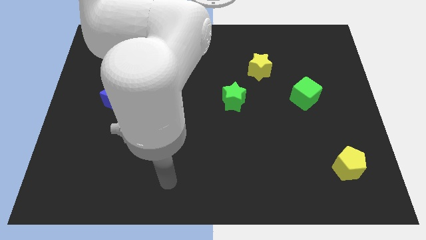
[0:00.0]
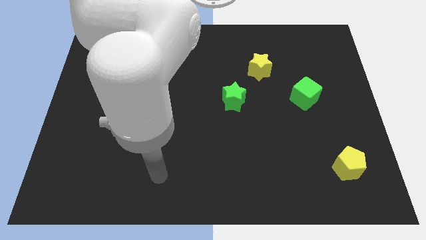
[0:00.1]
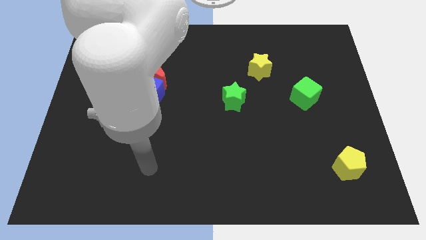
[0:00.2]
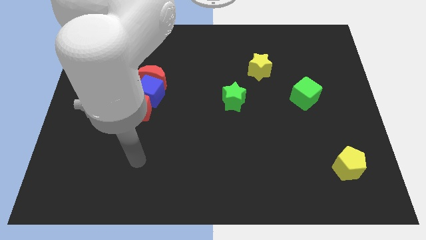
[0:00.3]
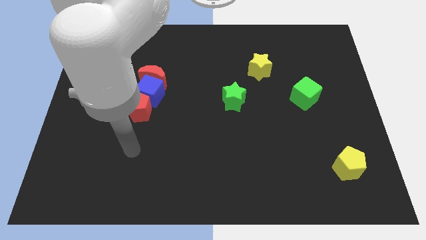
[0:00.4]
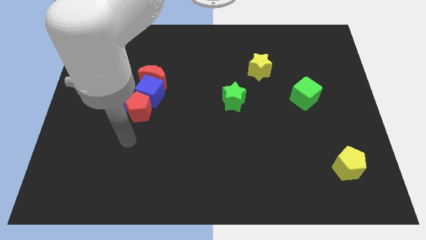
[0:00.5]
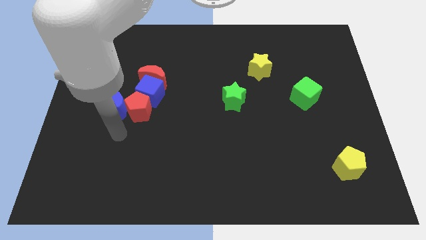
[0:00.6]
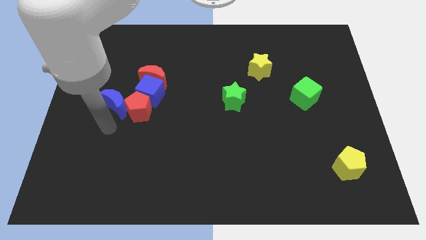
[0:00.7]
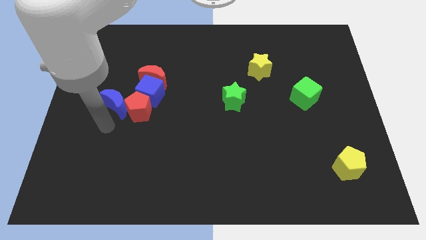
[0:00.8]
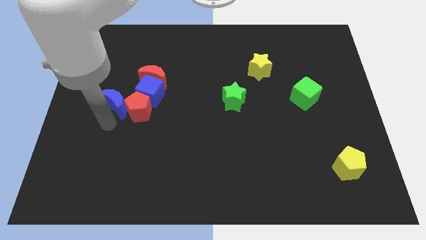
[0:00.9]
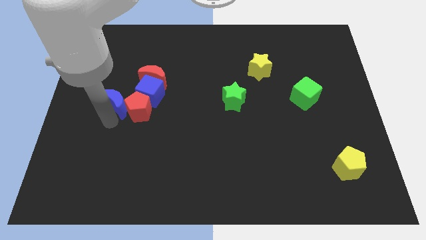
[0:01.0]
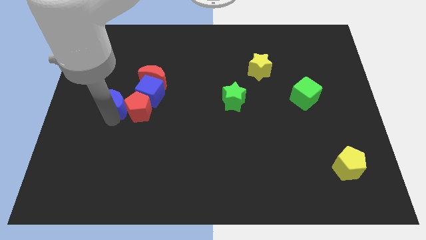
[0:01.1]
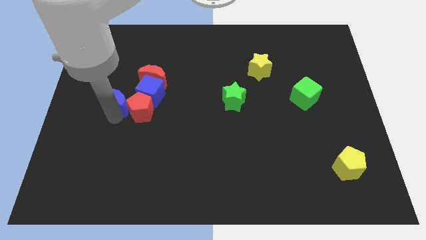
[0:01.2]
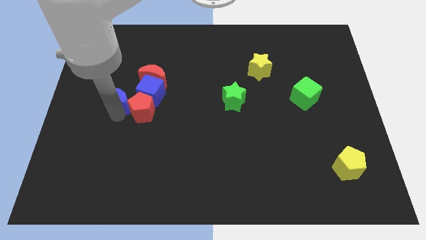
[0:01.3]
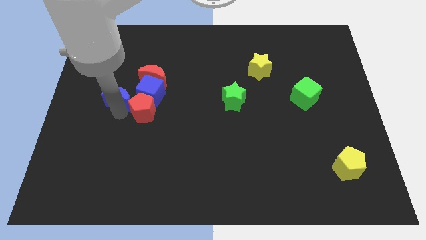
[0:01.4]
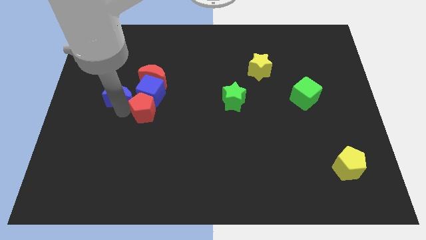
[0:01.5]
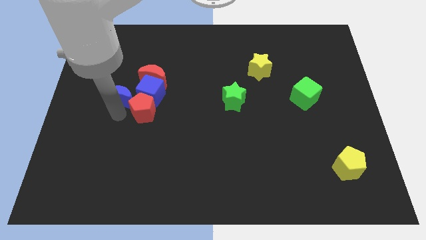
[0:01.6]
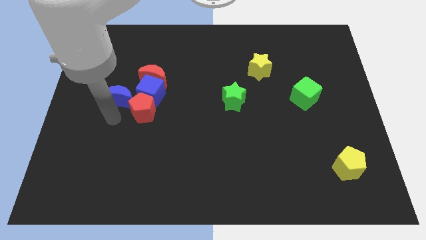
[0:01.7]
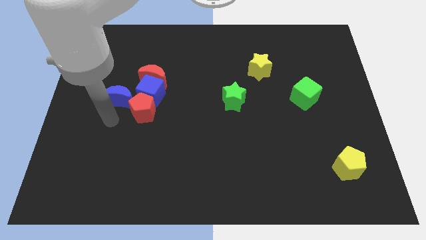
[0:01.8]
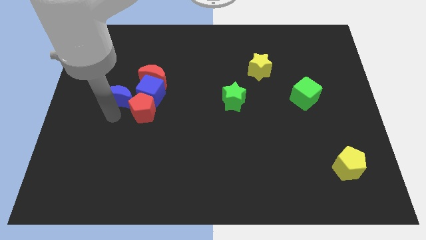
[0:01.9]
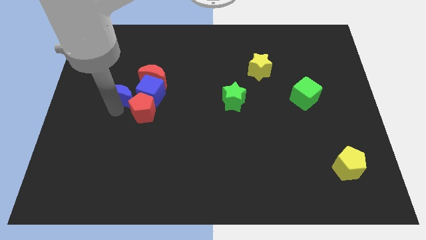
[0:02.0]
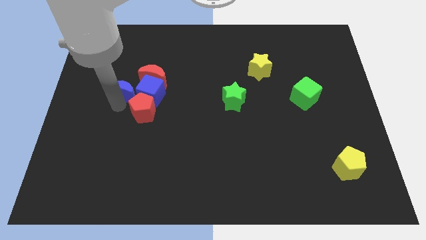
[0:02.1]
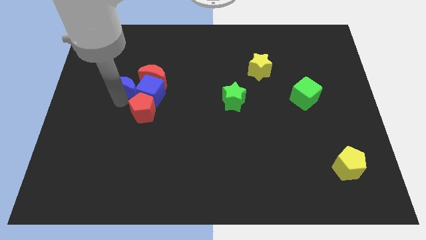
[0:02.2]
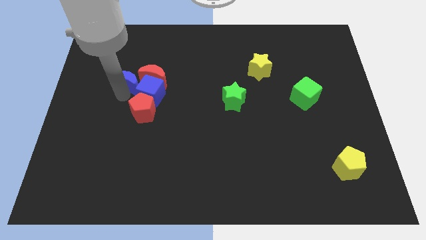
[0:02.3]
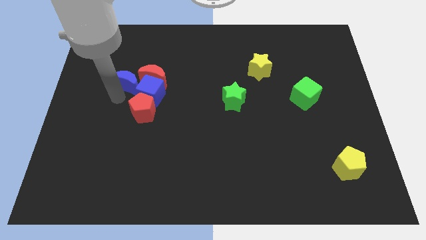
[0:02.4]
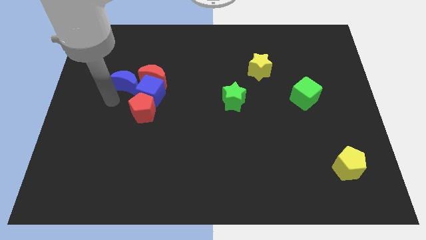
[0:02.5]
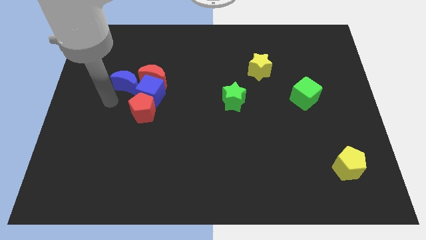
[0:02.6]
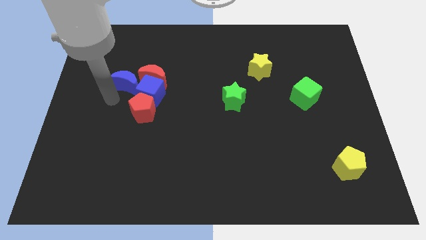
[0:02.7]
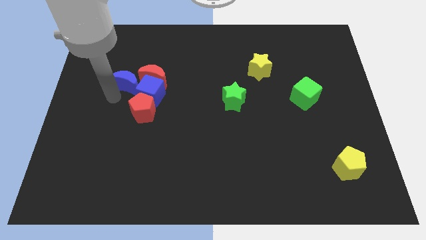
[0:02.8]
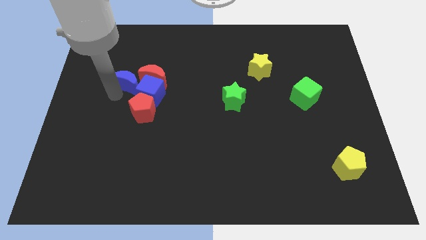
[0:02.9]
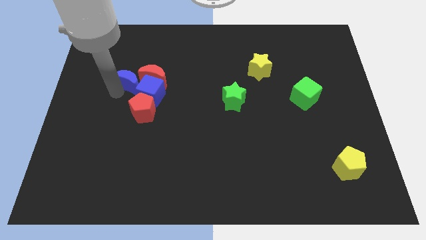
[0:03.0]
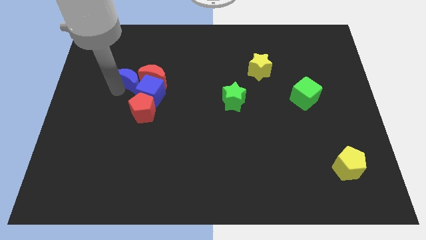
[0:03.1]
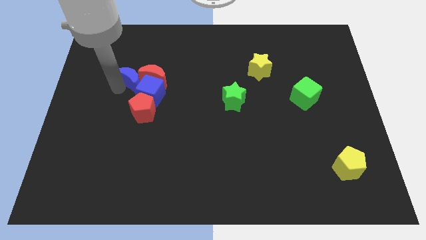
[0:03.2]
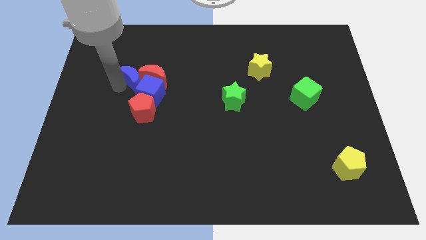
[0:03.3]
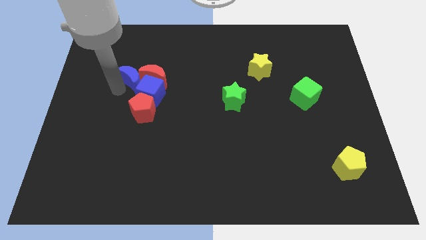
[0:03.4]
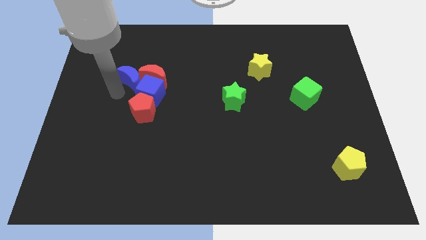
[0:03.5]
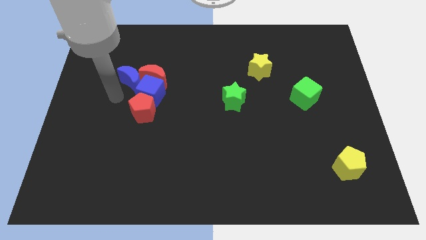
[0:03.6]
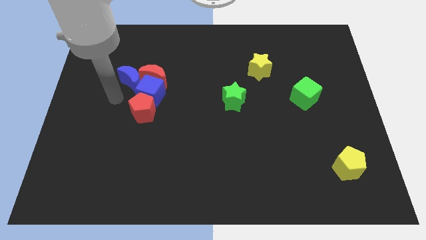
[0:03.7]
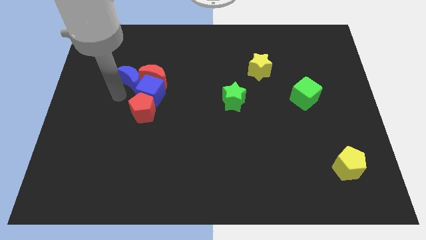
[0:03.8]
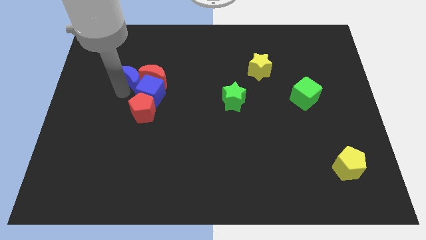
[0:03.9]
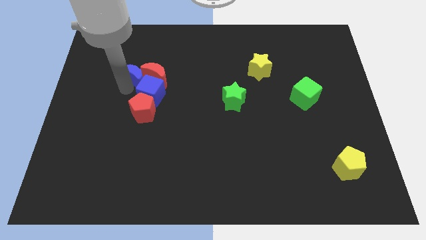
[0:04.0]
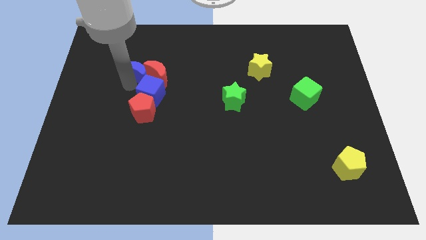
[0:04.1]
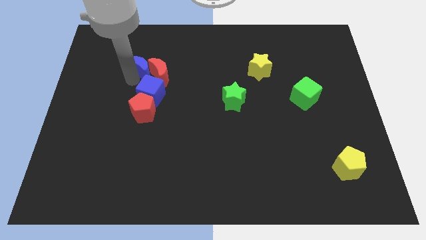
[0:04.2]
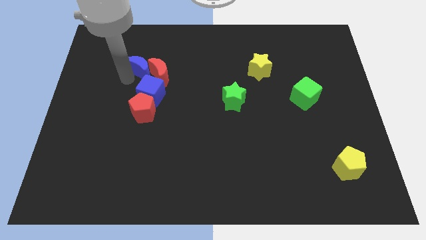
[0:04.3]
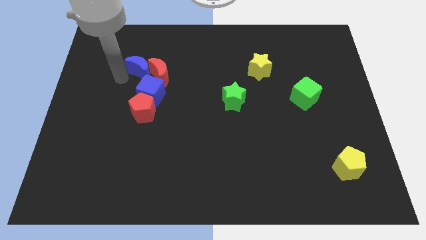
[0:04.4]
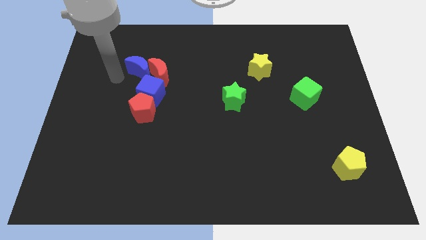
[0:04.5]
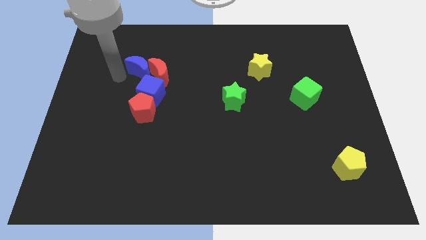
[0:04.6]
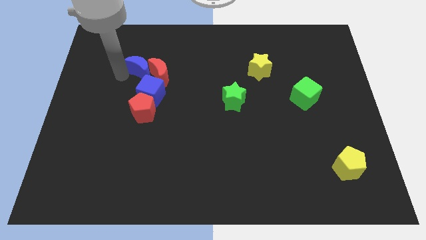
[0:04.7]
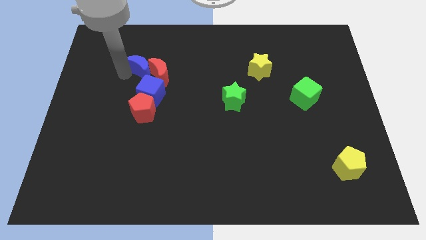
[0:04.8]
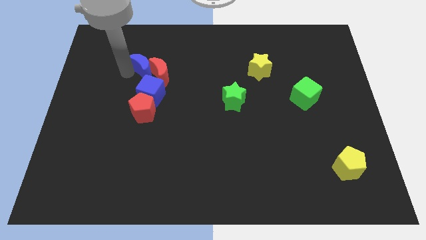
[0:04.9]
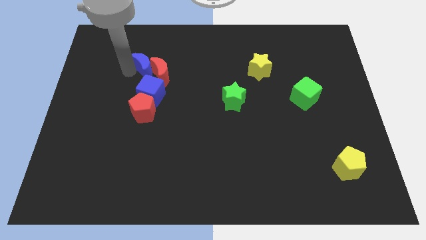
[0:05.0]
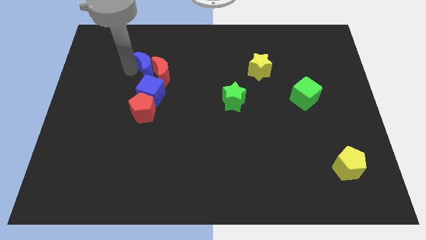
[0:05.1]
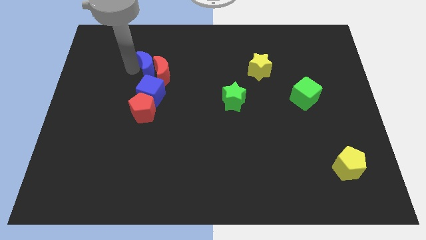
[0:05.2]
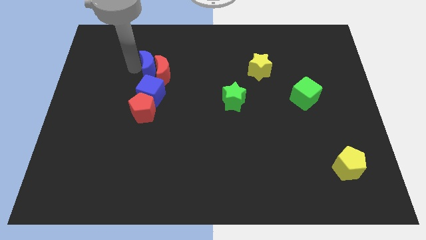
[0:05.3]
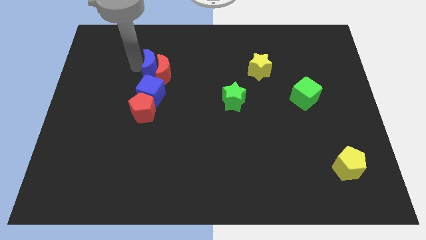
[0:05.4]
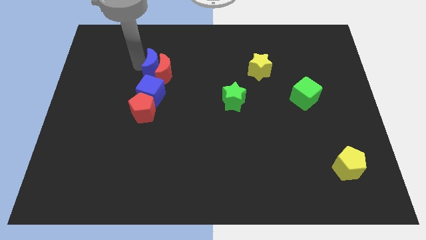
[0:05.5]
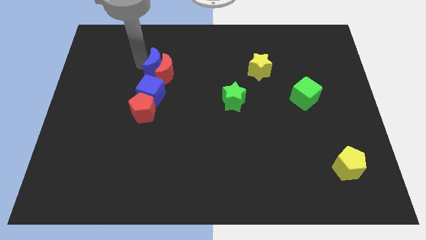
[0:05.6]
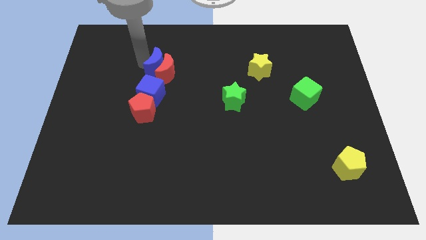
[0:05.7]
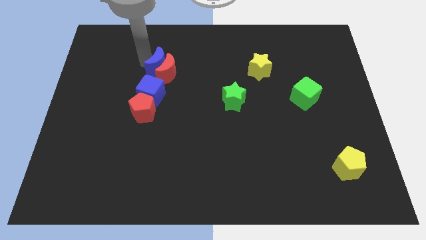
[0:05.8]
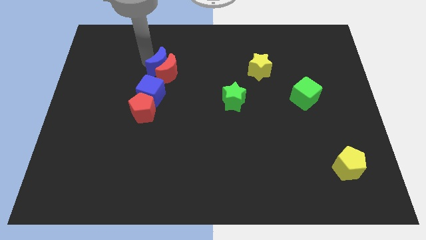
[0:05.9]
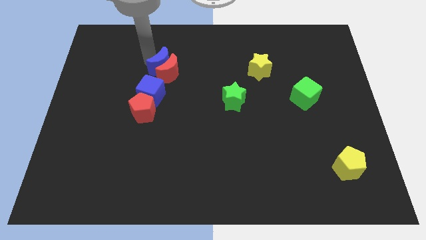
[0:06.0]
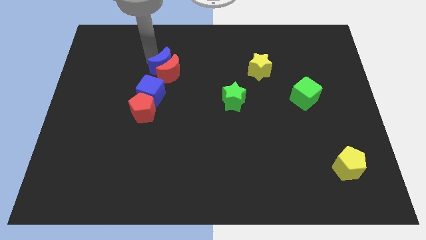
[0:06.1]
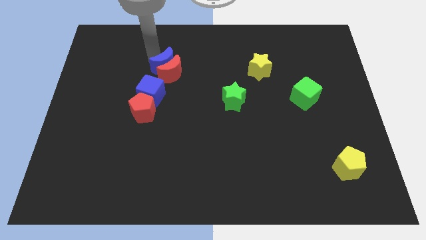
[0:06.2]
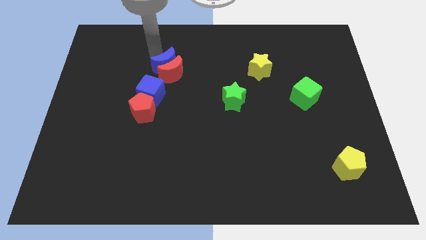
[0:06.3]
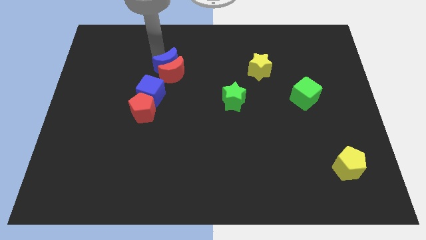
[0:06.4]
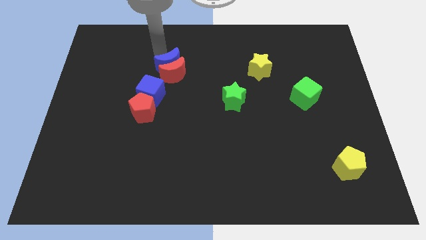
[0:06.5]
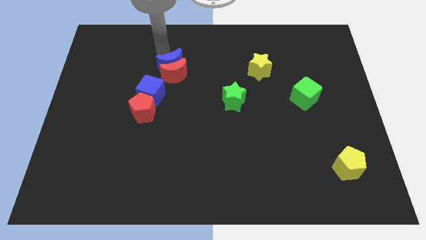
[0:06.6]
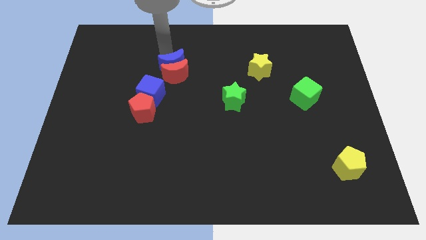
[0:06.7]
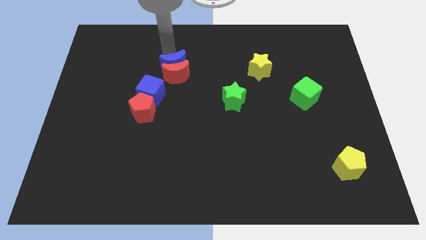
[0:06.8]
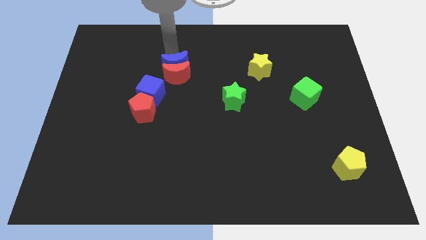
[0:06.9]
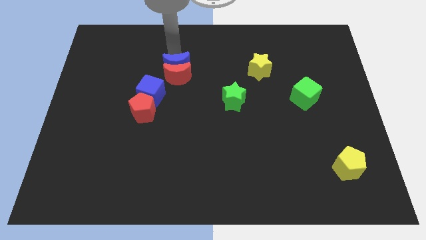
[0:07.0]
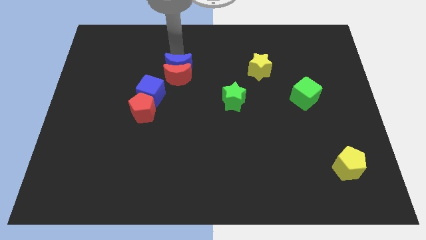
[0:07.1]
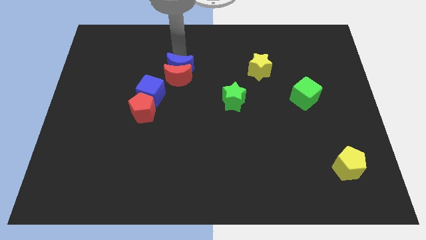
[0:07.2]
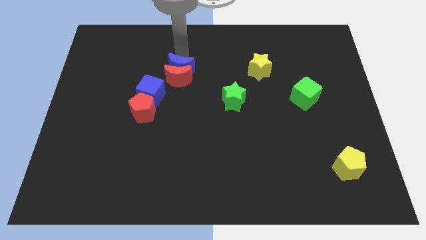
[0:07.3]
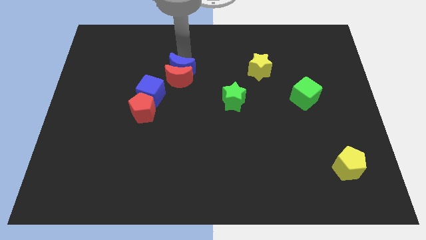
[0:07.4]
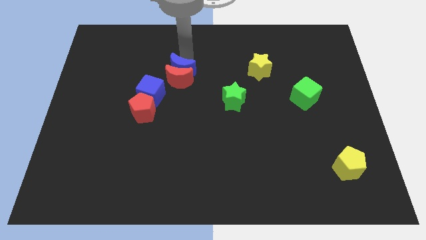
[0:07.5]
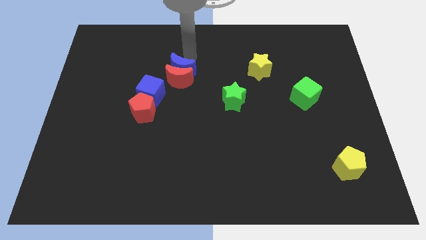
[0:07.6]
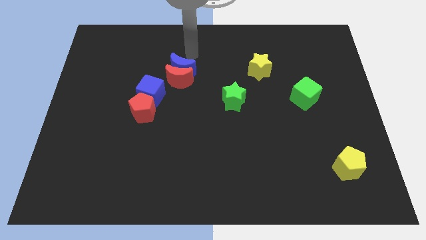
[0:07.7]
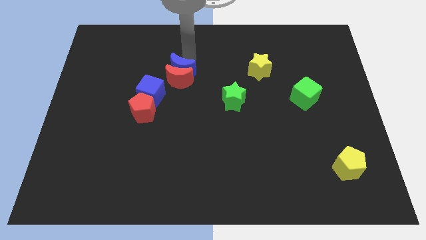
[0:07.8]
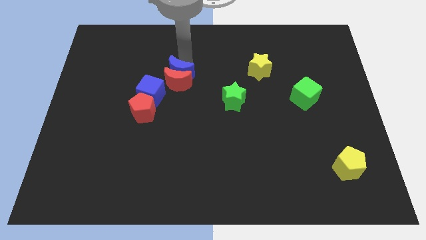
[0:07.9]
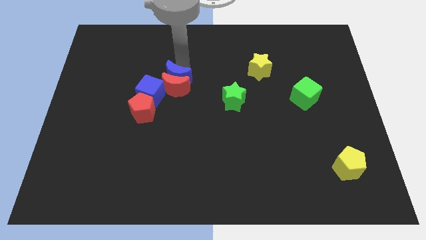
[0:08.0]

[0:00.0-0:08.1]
slide the blue moon diagonally up and to the right of the red pentagon
